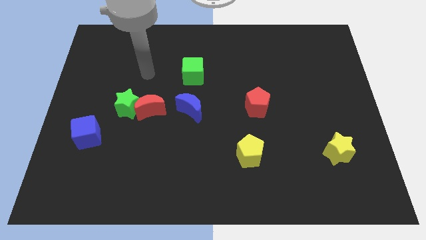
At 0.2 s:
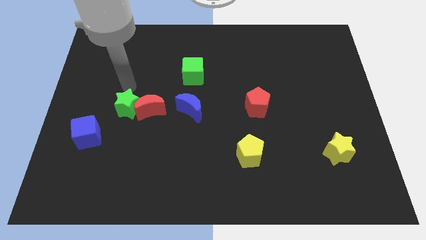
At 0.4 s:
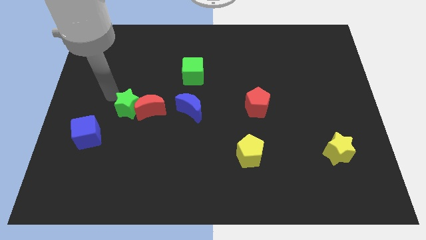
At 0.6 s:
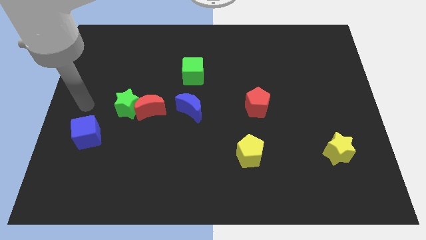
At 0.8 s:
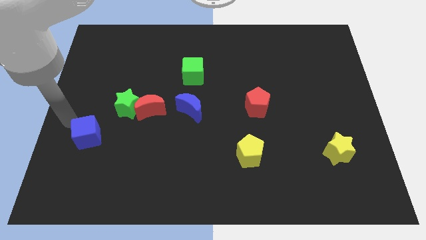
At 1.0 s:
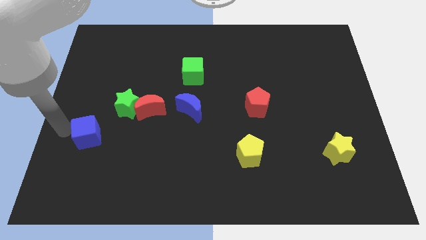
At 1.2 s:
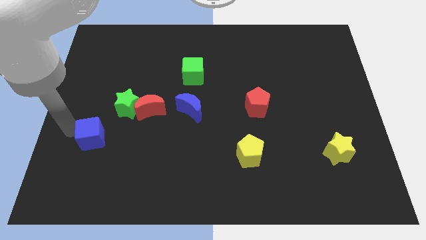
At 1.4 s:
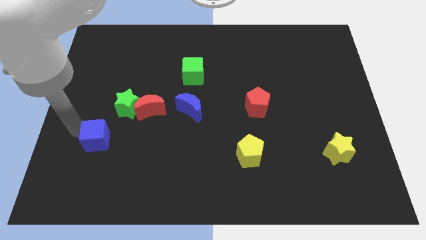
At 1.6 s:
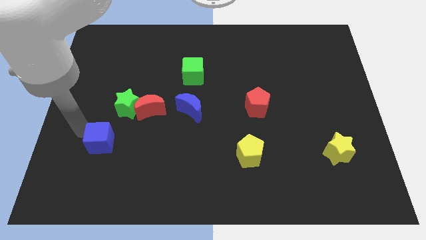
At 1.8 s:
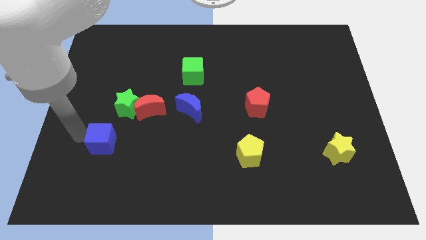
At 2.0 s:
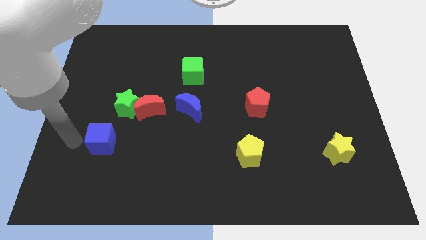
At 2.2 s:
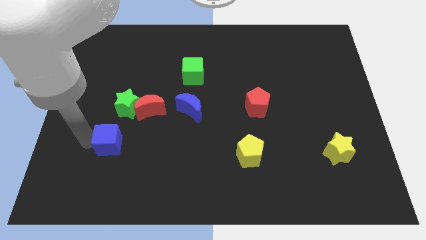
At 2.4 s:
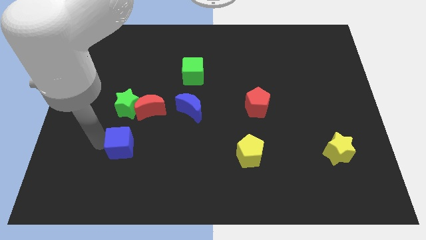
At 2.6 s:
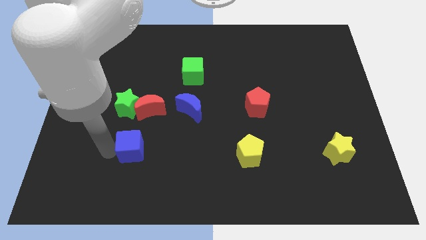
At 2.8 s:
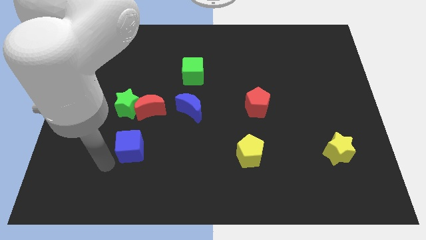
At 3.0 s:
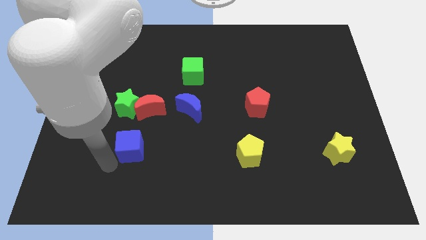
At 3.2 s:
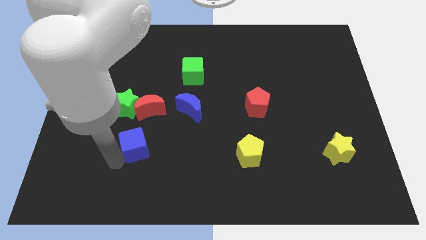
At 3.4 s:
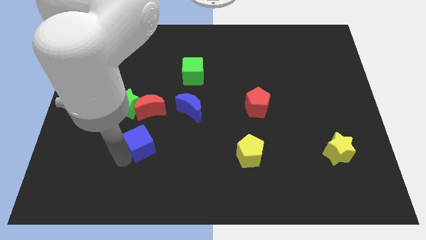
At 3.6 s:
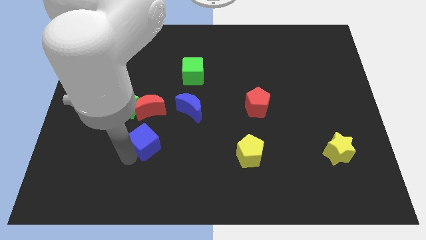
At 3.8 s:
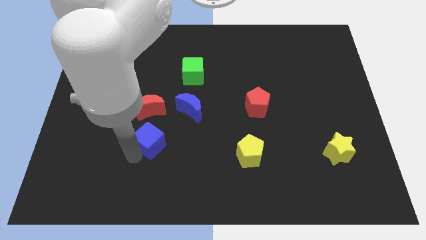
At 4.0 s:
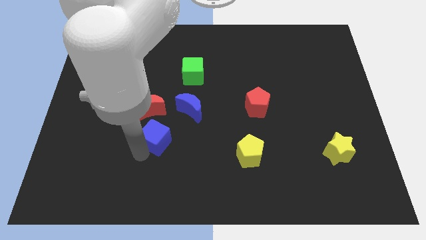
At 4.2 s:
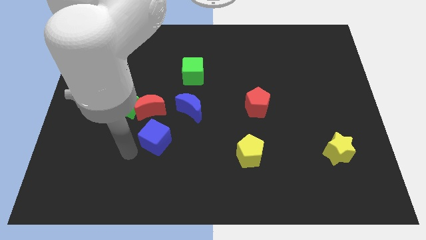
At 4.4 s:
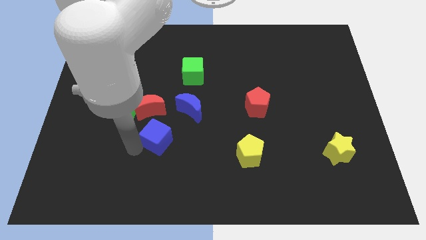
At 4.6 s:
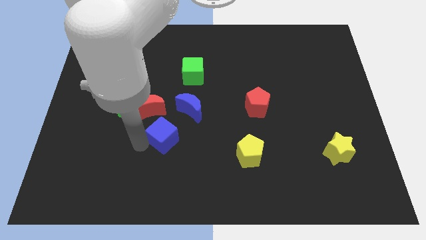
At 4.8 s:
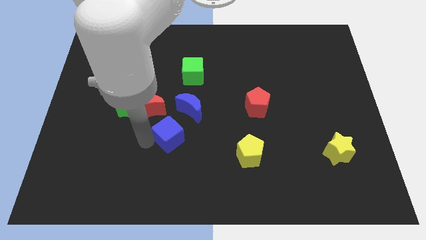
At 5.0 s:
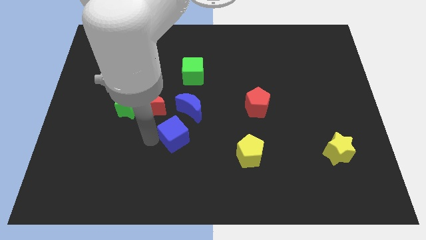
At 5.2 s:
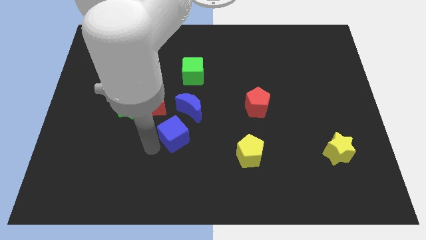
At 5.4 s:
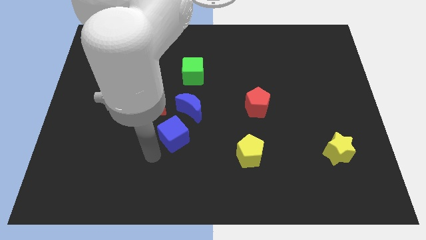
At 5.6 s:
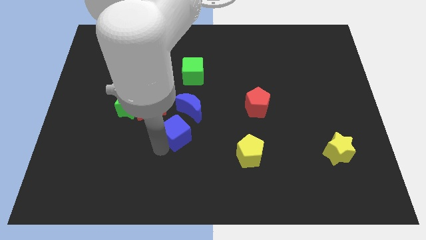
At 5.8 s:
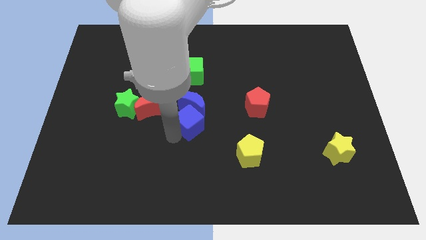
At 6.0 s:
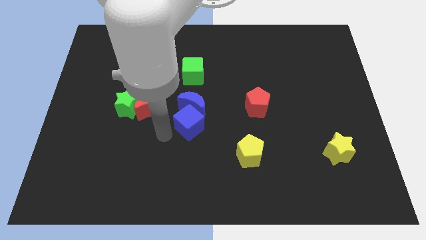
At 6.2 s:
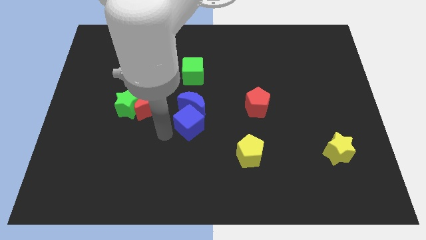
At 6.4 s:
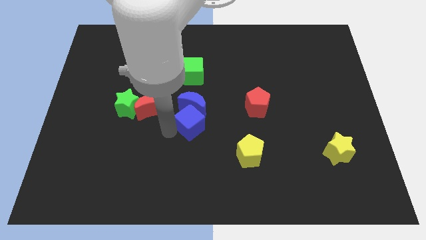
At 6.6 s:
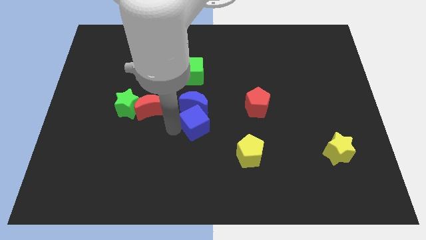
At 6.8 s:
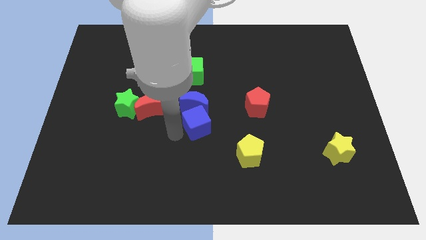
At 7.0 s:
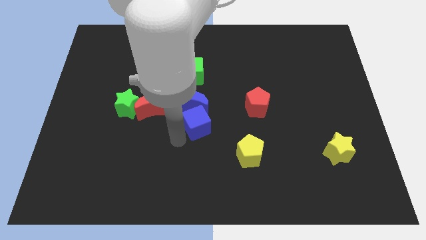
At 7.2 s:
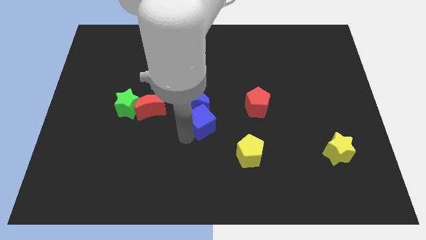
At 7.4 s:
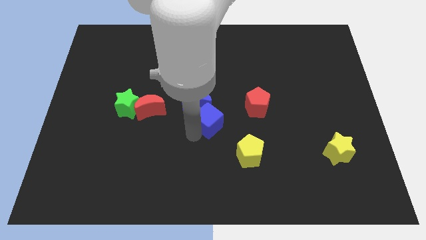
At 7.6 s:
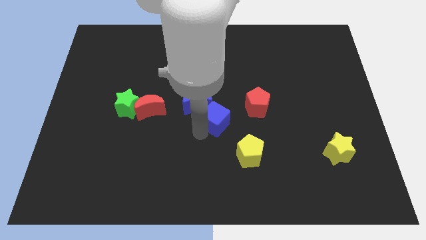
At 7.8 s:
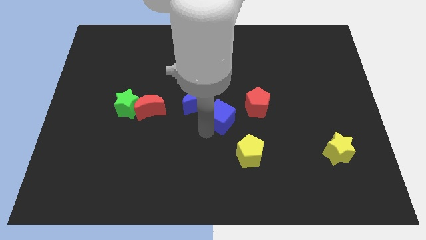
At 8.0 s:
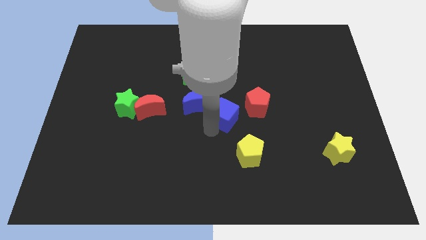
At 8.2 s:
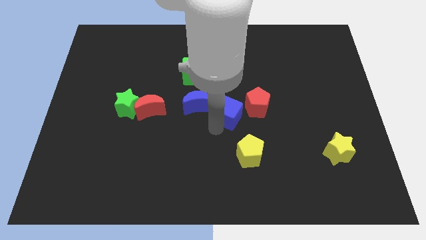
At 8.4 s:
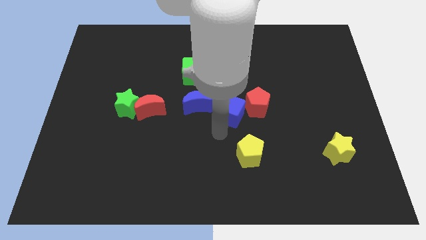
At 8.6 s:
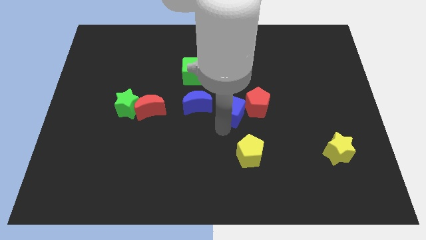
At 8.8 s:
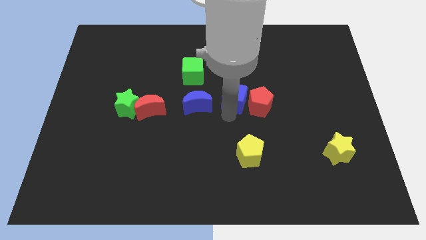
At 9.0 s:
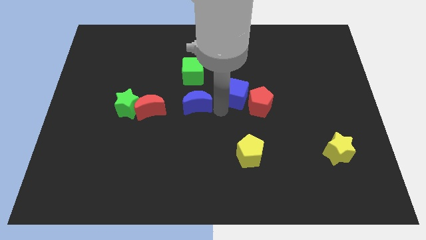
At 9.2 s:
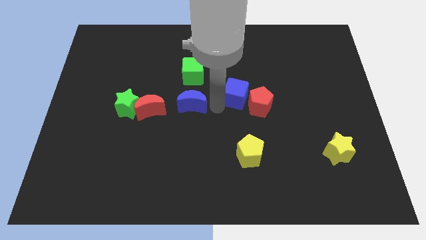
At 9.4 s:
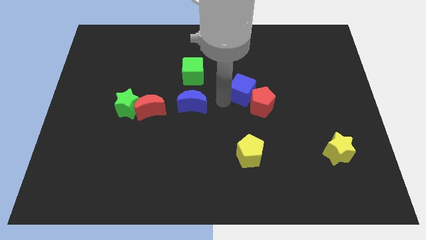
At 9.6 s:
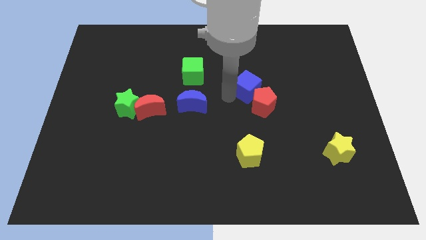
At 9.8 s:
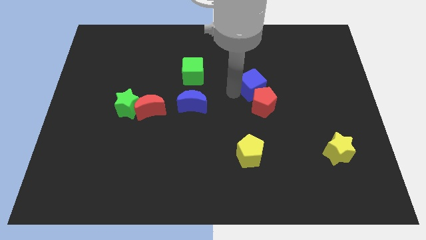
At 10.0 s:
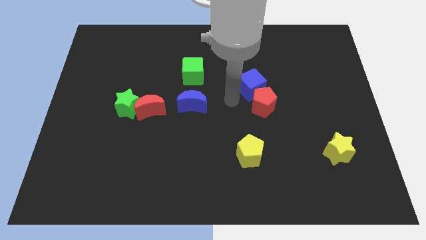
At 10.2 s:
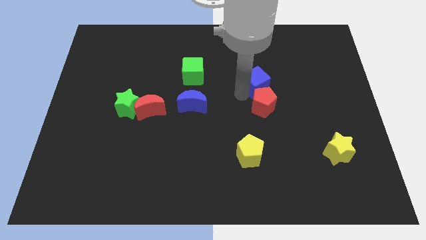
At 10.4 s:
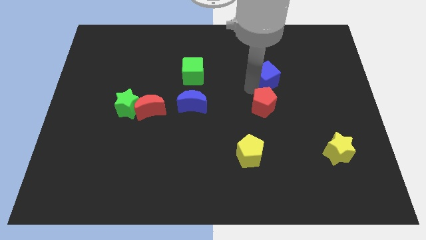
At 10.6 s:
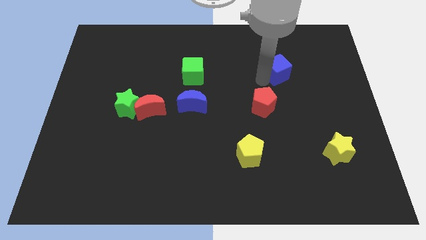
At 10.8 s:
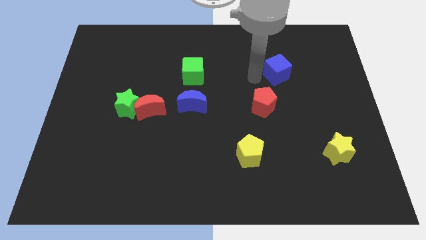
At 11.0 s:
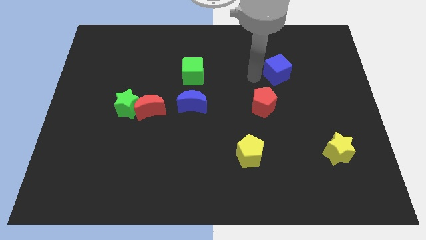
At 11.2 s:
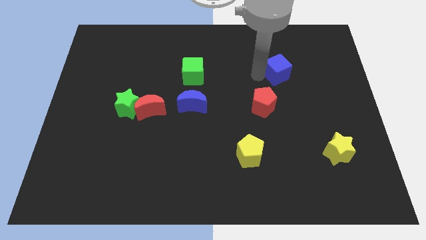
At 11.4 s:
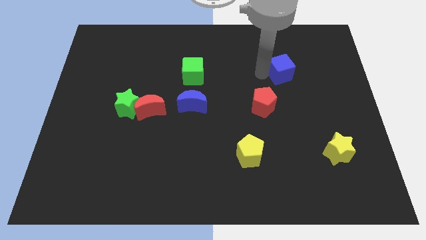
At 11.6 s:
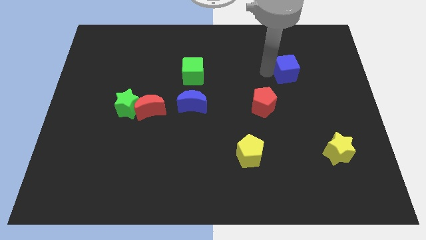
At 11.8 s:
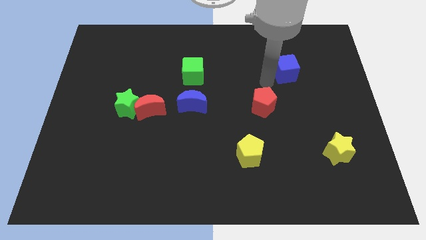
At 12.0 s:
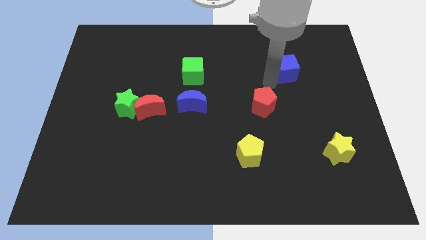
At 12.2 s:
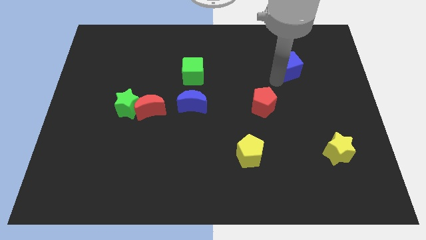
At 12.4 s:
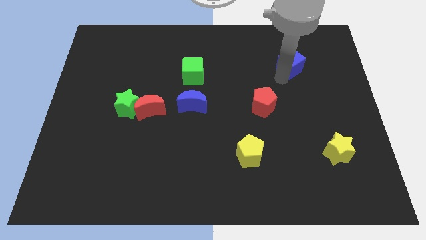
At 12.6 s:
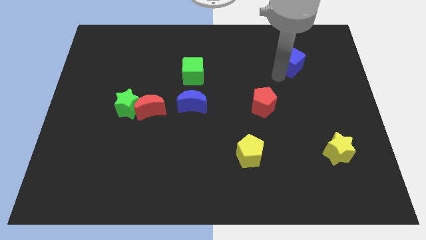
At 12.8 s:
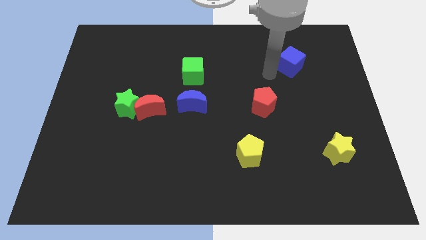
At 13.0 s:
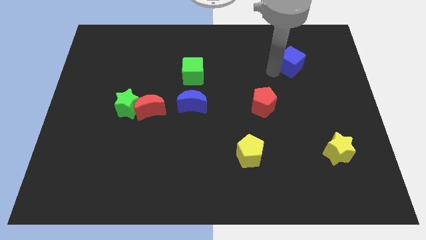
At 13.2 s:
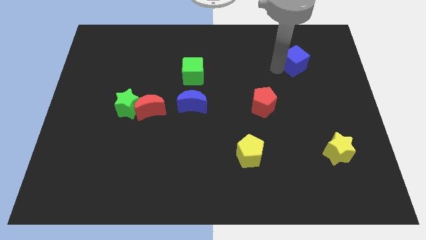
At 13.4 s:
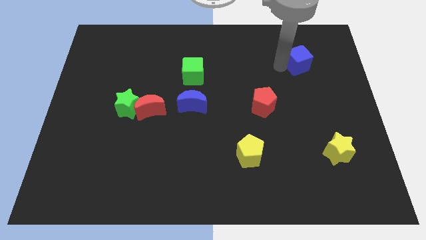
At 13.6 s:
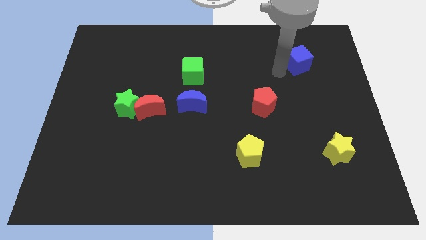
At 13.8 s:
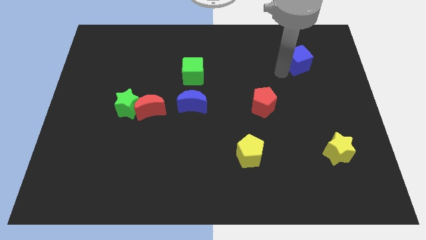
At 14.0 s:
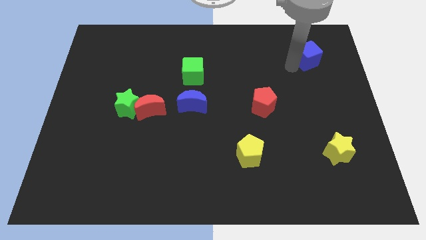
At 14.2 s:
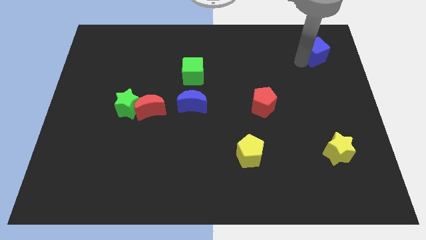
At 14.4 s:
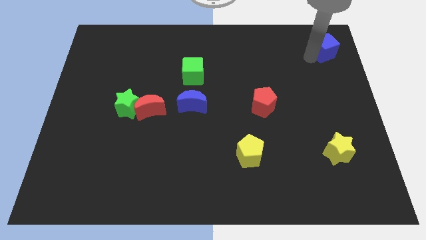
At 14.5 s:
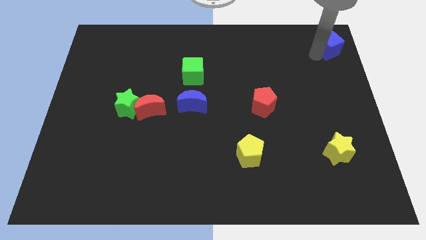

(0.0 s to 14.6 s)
push the blue cube to the top right of the board
